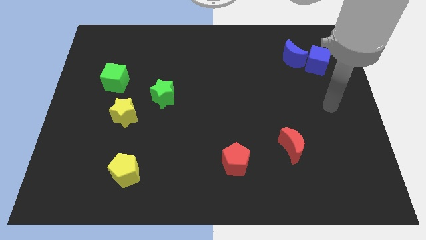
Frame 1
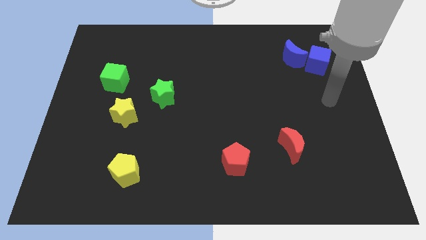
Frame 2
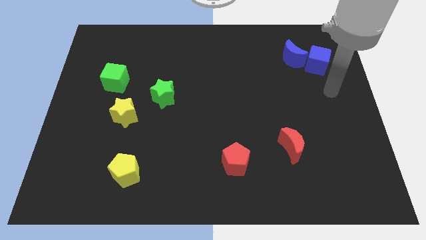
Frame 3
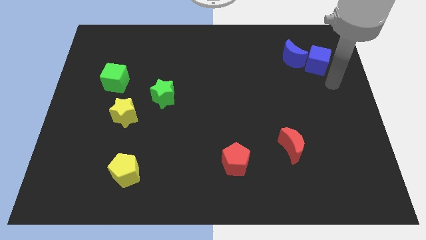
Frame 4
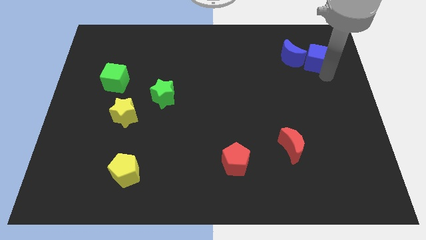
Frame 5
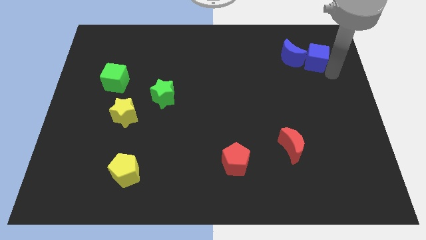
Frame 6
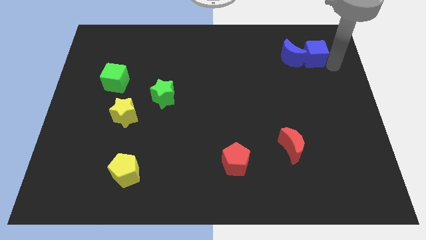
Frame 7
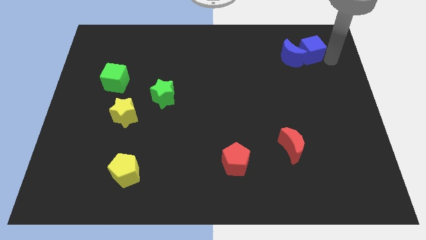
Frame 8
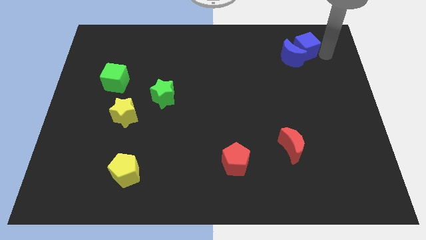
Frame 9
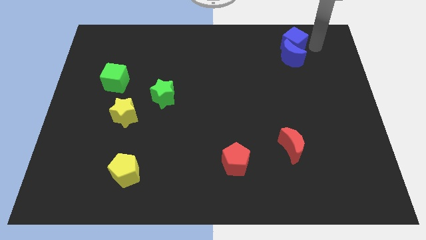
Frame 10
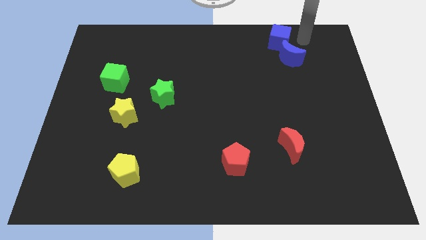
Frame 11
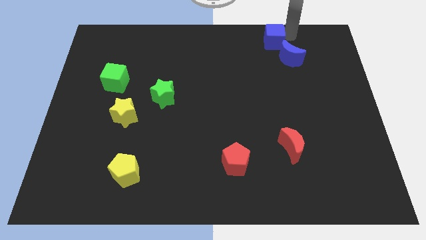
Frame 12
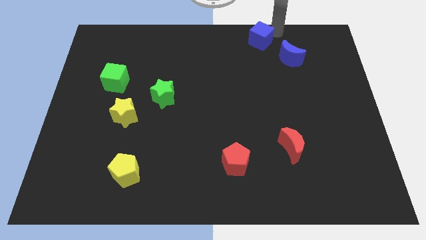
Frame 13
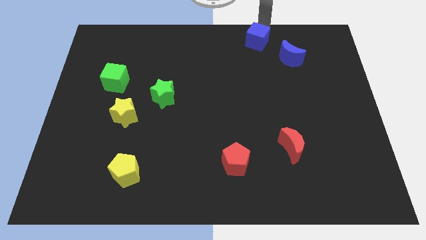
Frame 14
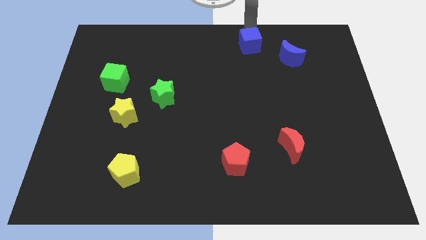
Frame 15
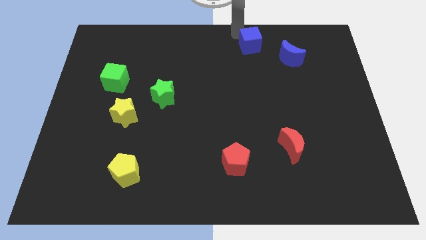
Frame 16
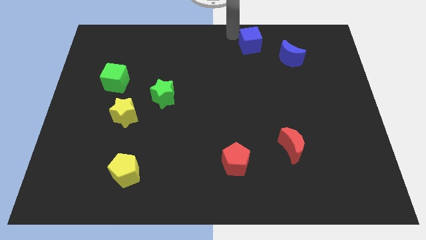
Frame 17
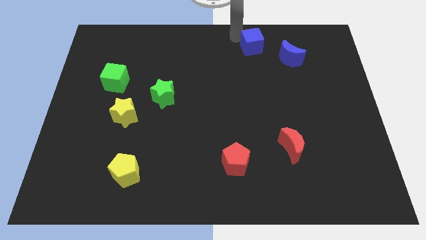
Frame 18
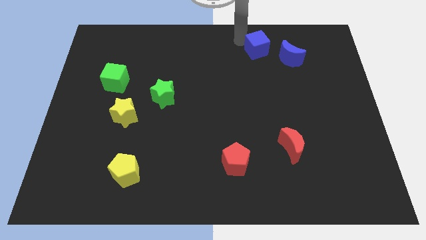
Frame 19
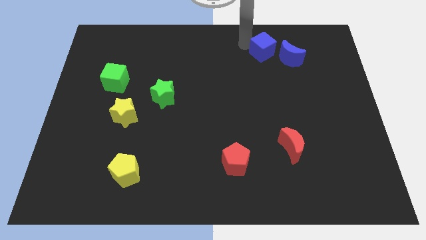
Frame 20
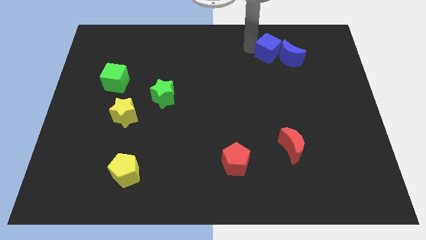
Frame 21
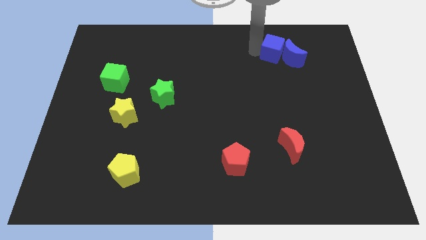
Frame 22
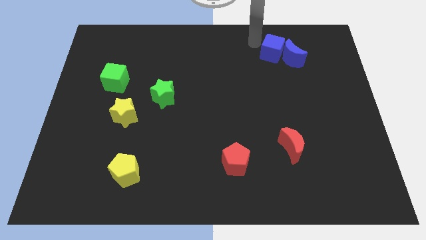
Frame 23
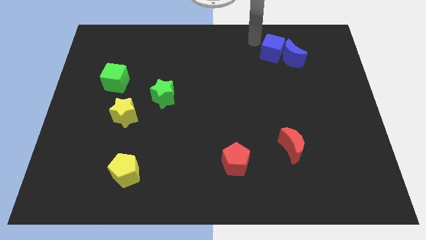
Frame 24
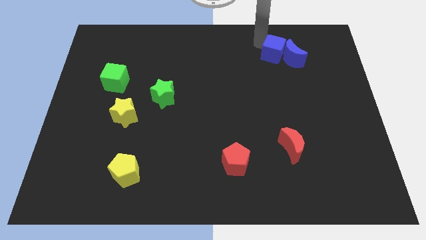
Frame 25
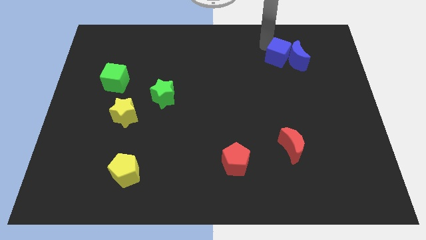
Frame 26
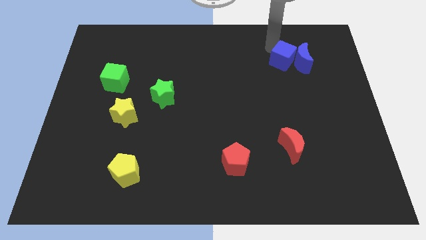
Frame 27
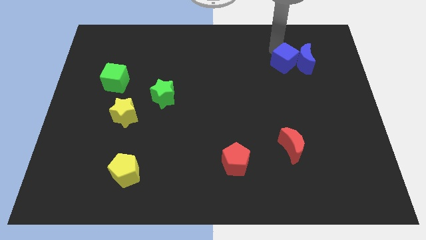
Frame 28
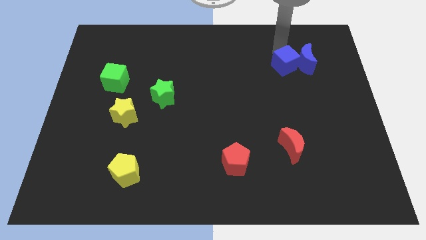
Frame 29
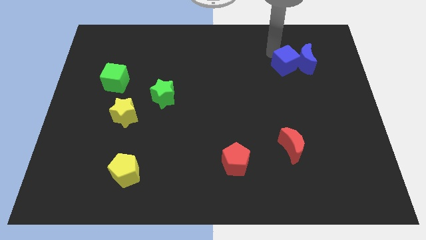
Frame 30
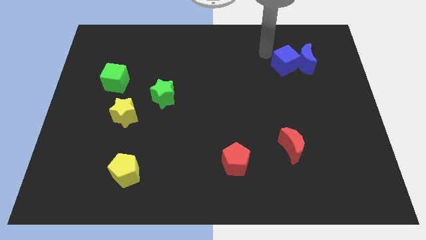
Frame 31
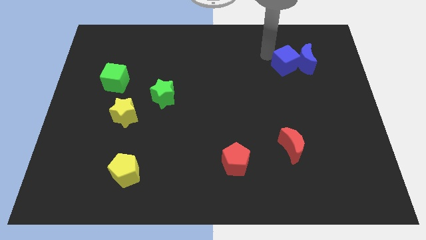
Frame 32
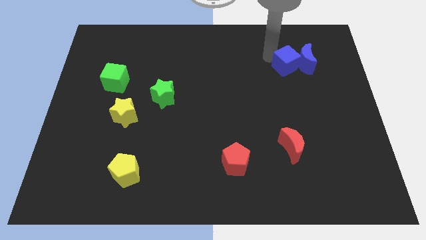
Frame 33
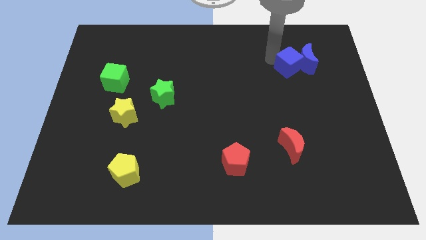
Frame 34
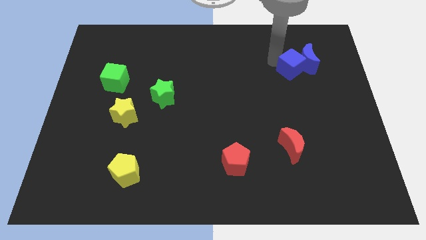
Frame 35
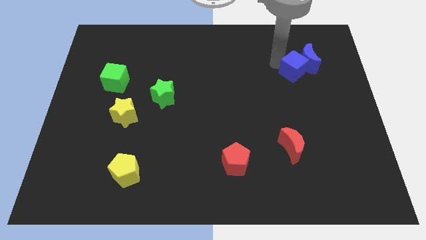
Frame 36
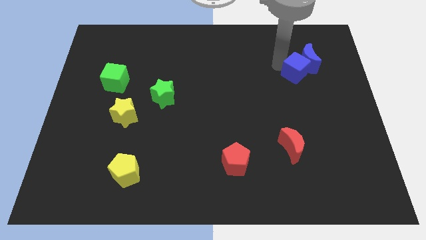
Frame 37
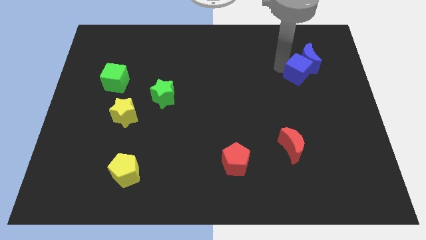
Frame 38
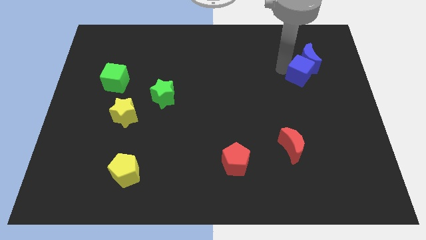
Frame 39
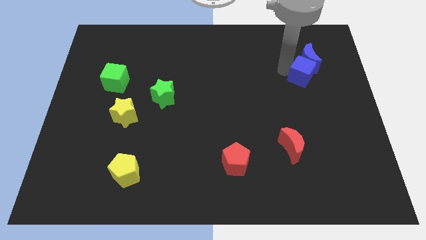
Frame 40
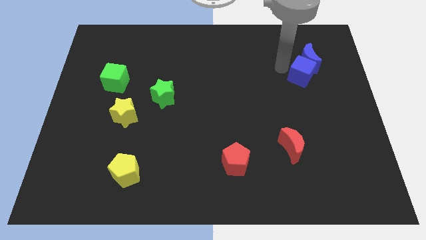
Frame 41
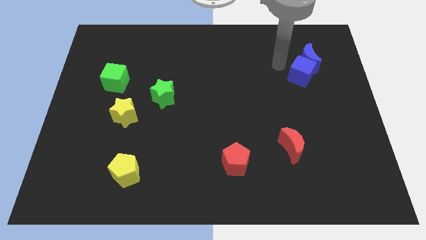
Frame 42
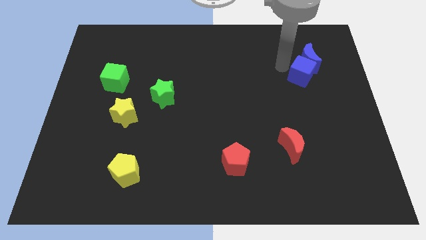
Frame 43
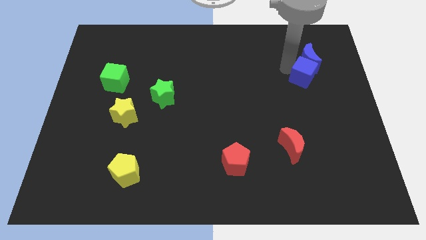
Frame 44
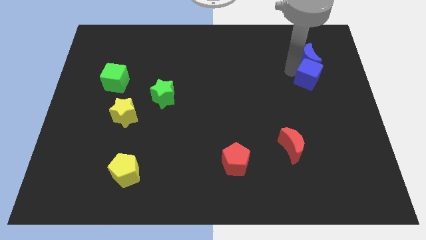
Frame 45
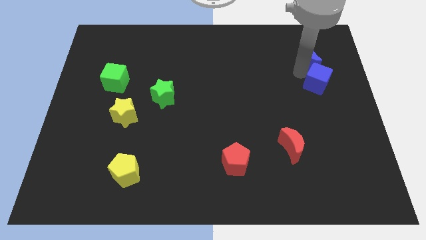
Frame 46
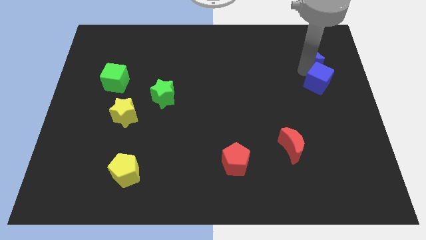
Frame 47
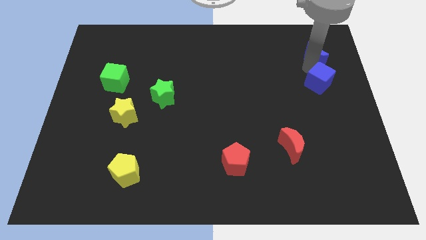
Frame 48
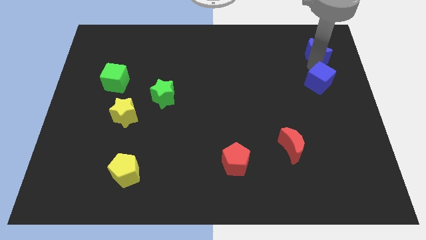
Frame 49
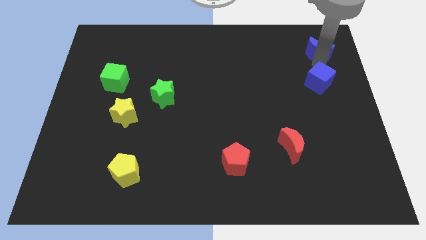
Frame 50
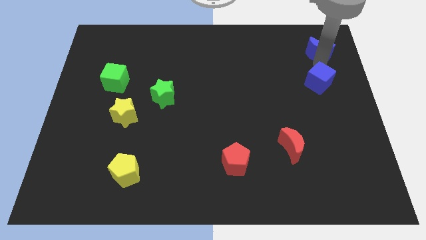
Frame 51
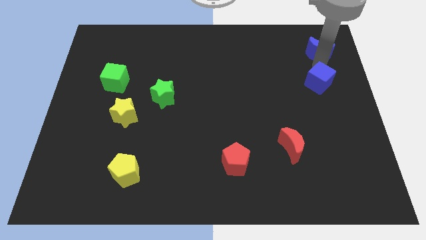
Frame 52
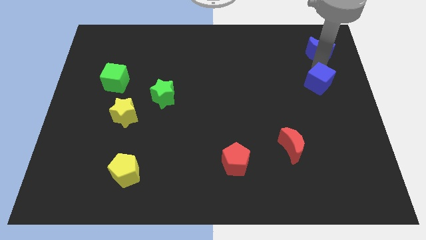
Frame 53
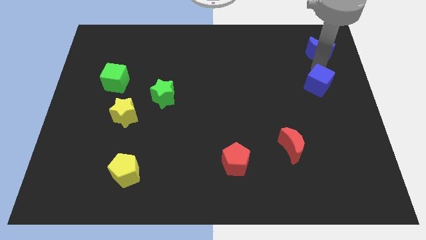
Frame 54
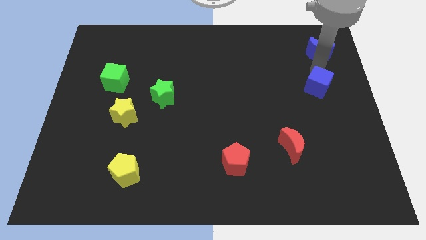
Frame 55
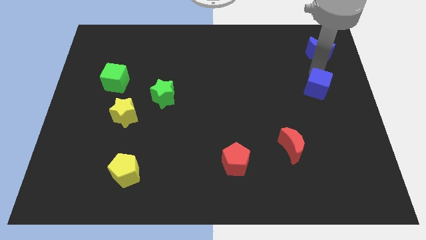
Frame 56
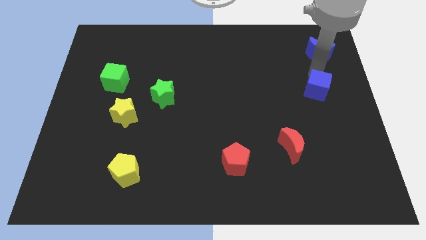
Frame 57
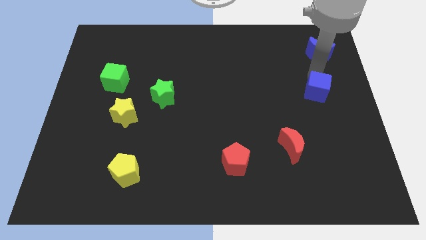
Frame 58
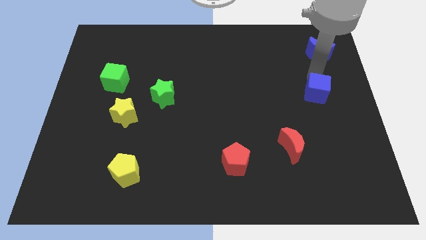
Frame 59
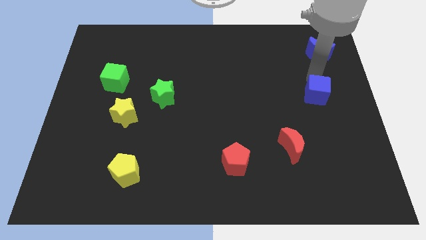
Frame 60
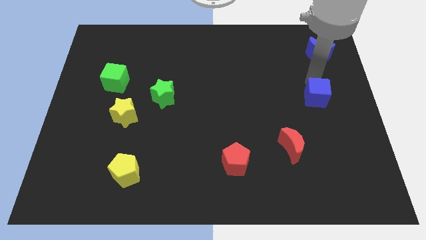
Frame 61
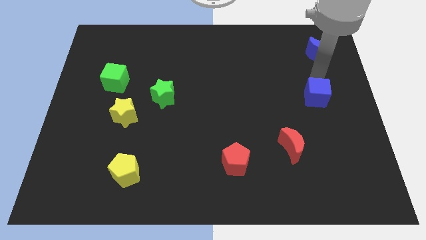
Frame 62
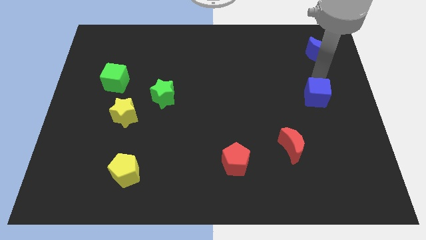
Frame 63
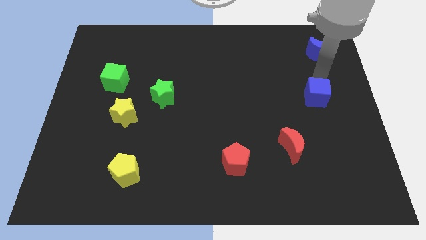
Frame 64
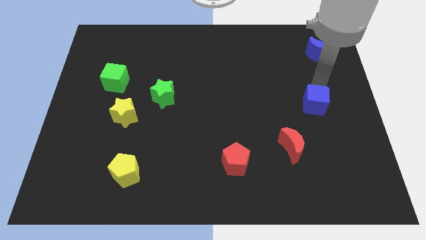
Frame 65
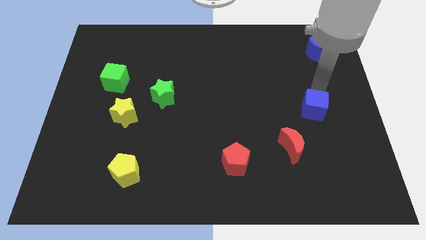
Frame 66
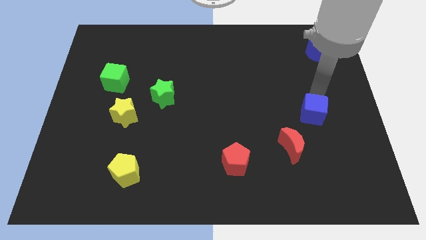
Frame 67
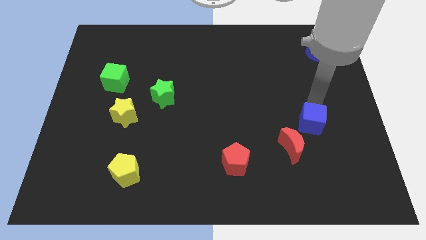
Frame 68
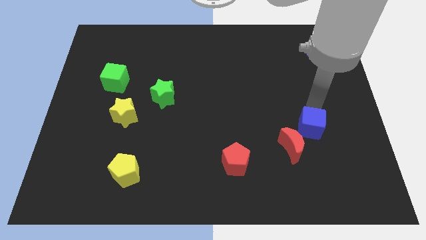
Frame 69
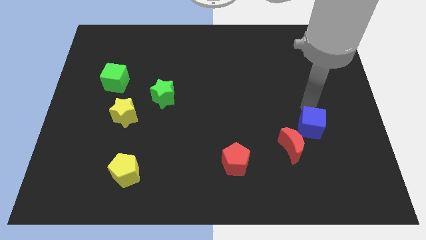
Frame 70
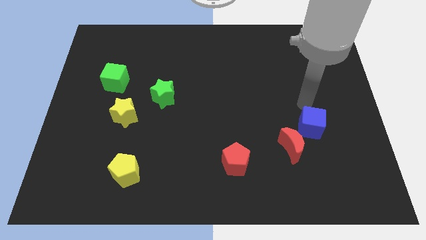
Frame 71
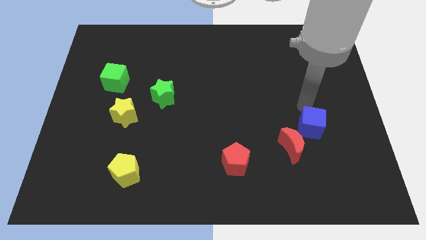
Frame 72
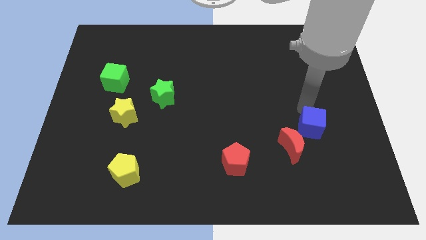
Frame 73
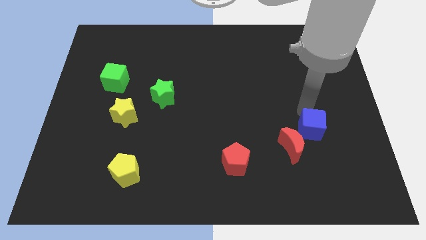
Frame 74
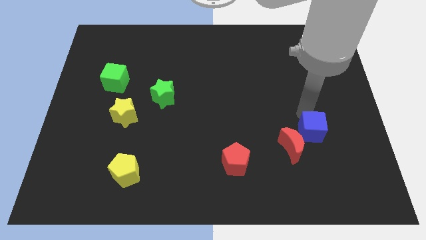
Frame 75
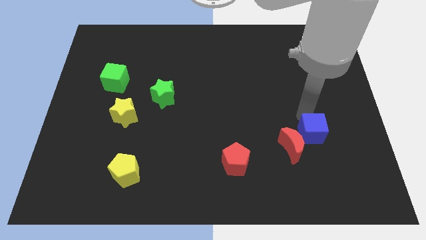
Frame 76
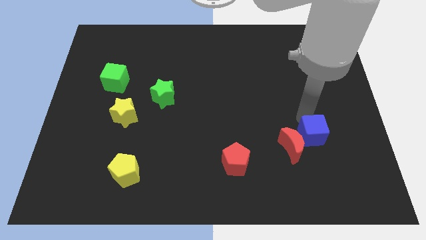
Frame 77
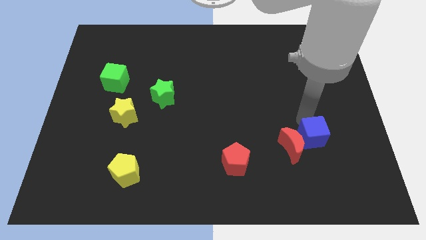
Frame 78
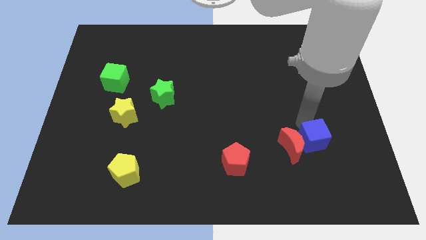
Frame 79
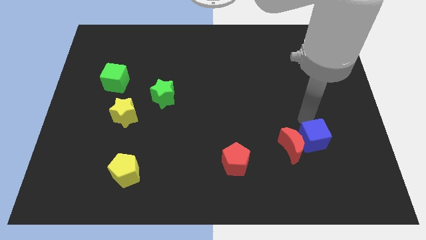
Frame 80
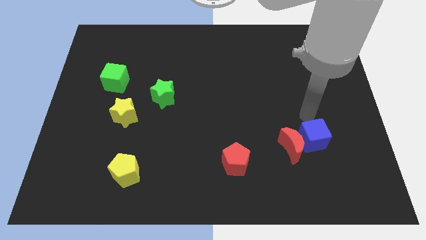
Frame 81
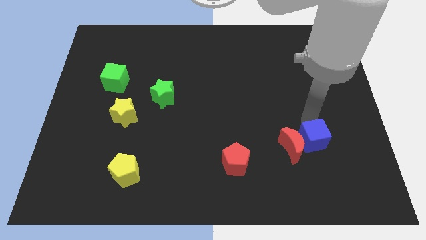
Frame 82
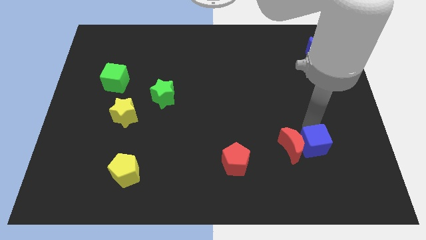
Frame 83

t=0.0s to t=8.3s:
push the blue cube to the bottom right side of the red moon
